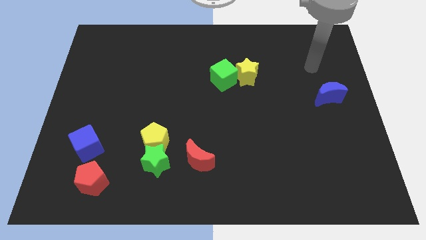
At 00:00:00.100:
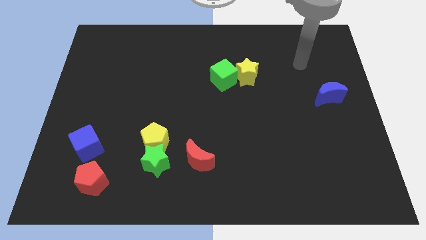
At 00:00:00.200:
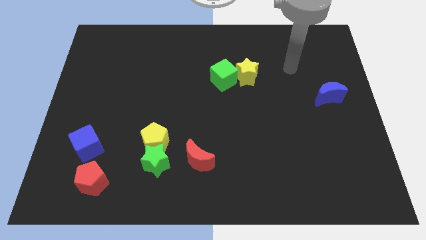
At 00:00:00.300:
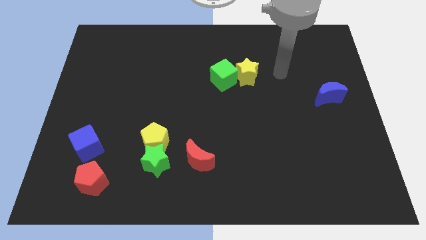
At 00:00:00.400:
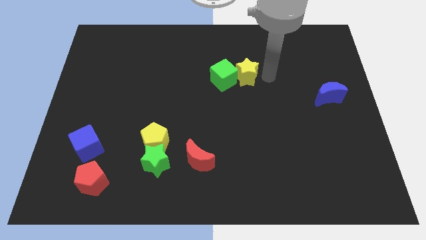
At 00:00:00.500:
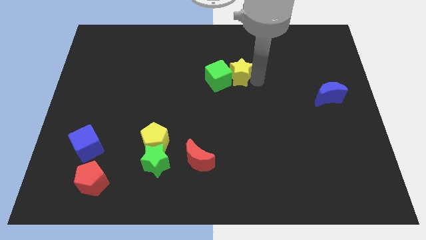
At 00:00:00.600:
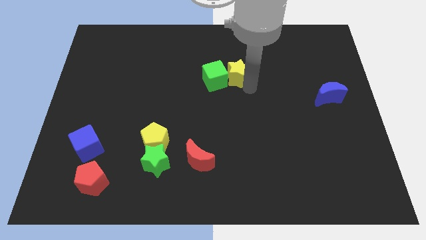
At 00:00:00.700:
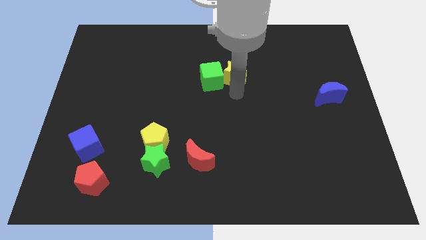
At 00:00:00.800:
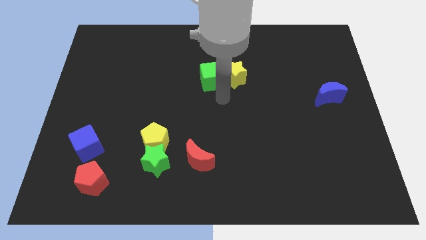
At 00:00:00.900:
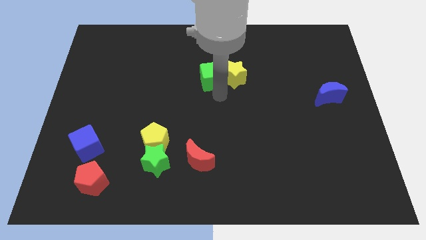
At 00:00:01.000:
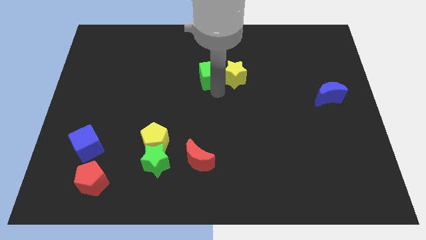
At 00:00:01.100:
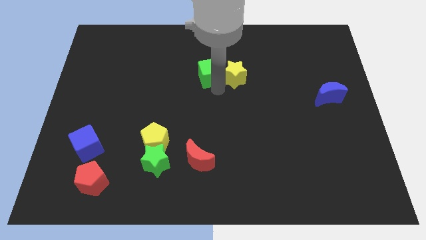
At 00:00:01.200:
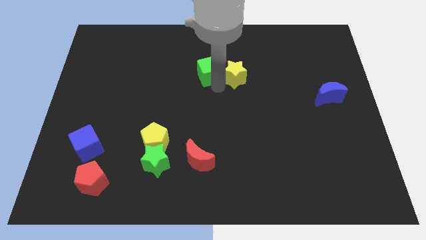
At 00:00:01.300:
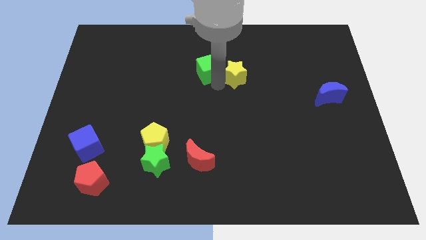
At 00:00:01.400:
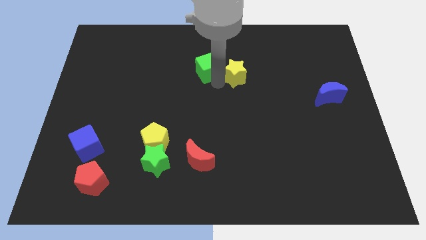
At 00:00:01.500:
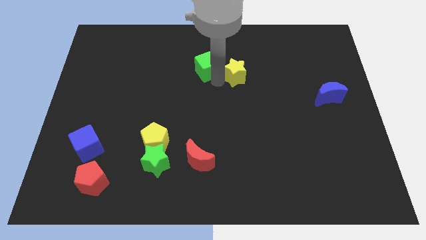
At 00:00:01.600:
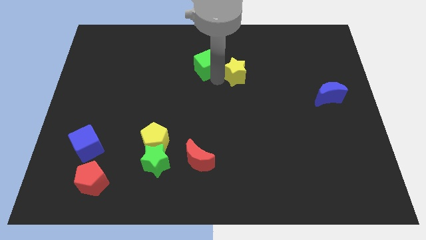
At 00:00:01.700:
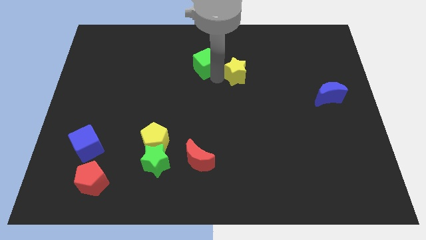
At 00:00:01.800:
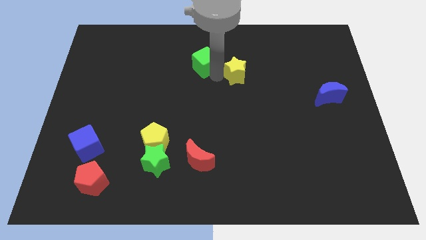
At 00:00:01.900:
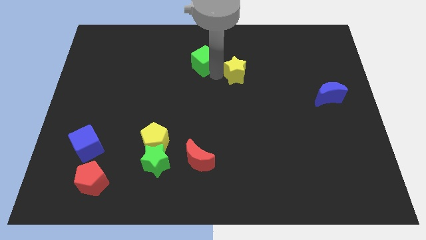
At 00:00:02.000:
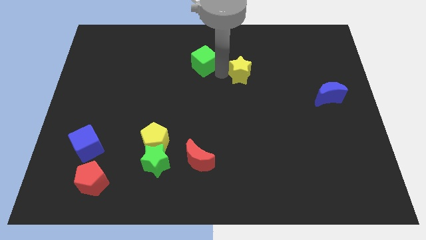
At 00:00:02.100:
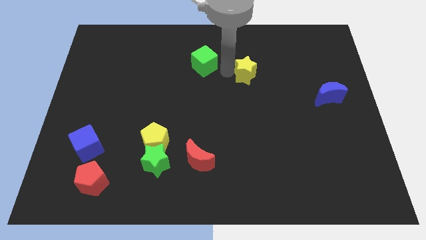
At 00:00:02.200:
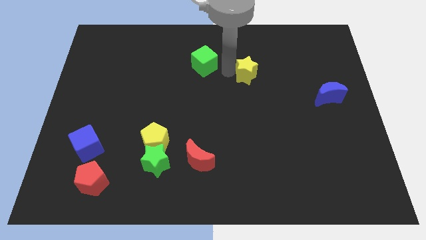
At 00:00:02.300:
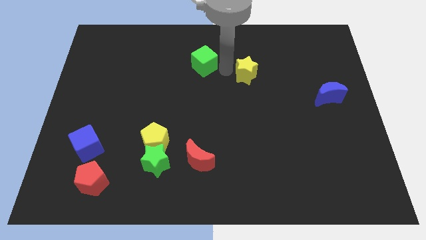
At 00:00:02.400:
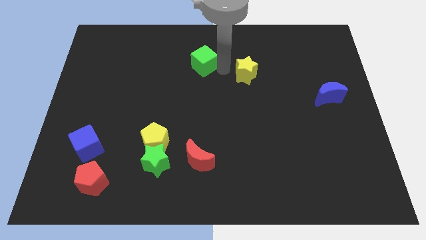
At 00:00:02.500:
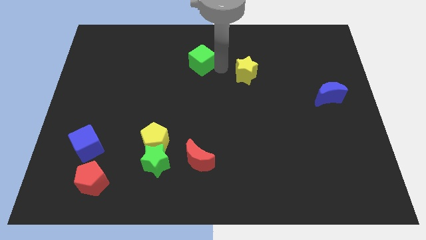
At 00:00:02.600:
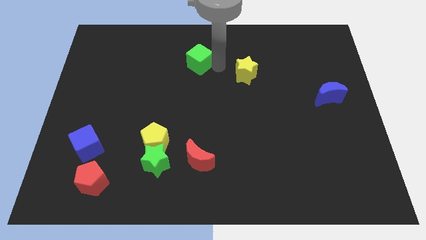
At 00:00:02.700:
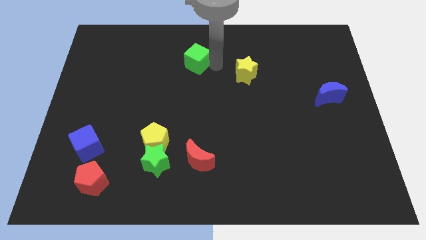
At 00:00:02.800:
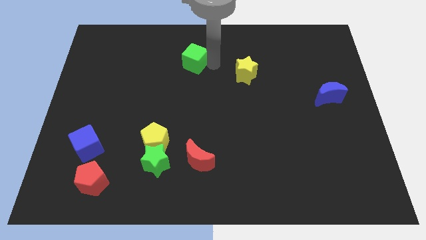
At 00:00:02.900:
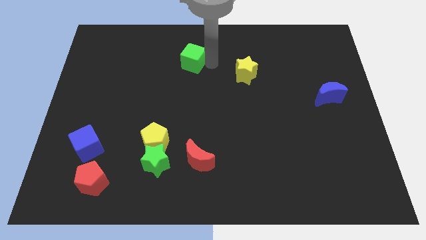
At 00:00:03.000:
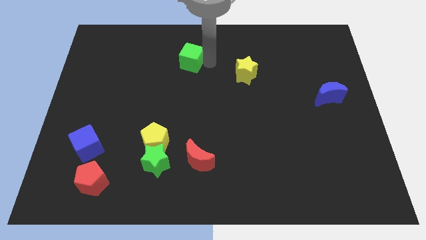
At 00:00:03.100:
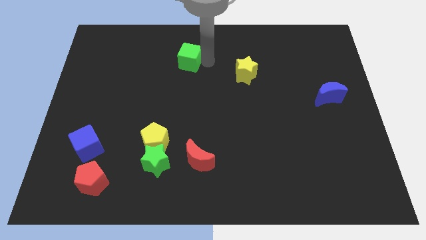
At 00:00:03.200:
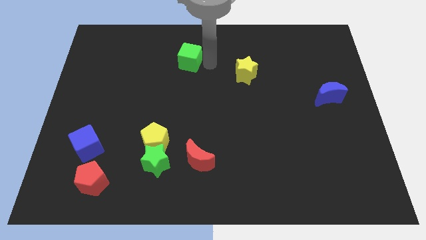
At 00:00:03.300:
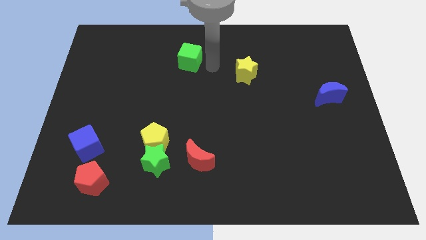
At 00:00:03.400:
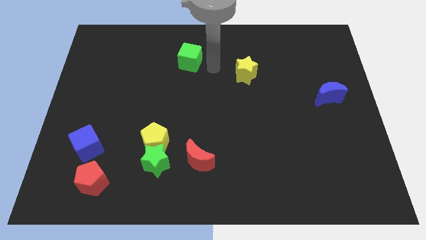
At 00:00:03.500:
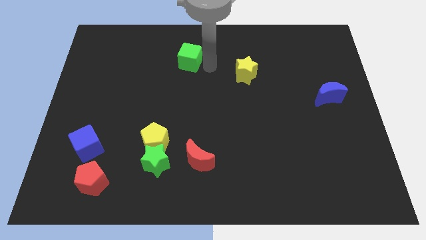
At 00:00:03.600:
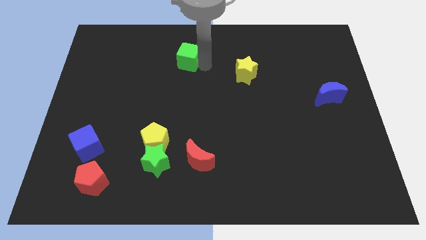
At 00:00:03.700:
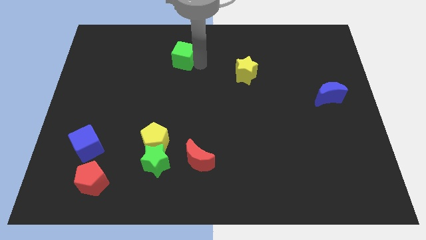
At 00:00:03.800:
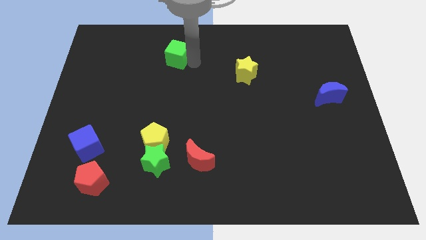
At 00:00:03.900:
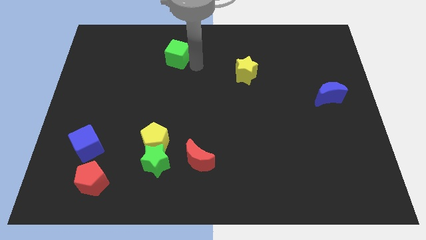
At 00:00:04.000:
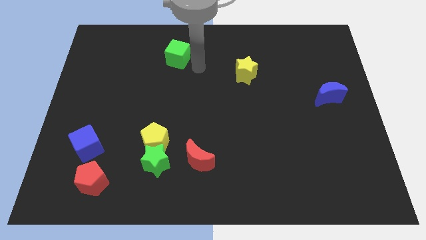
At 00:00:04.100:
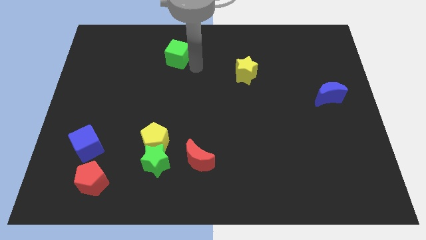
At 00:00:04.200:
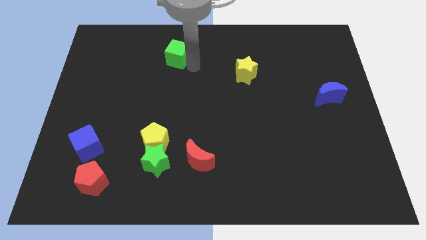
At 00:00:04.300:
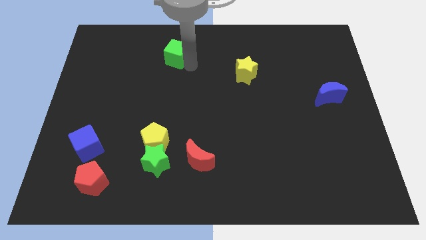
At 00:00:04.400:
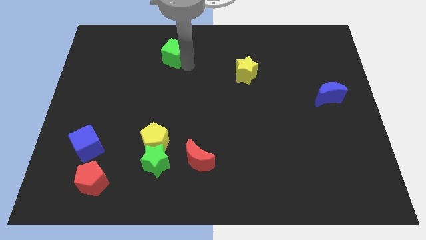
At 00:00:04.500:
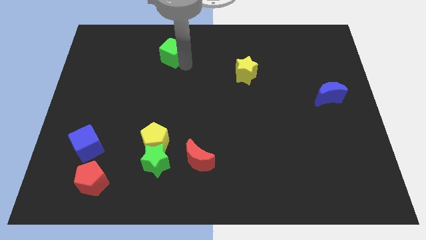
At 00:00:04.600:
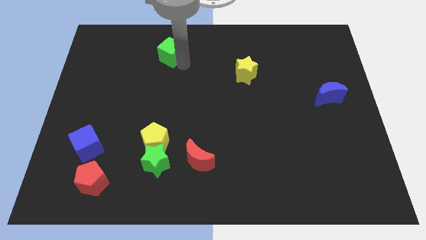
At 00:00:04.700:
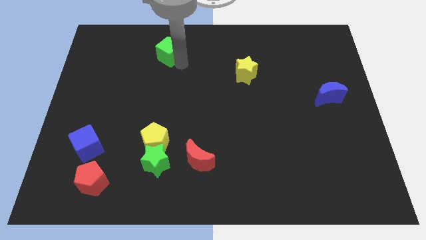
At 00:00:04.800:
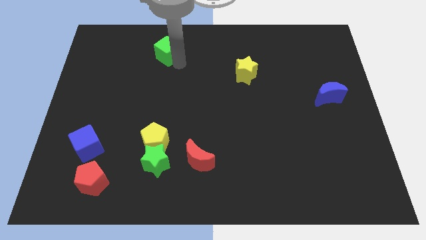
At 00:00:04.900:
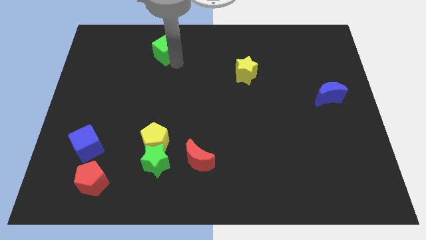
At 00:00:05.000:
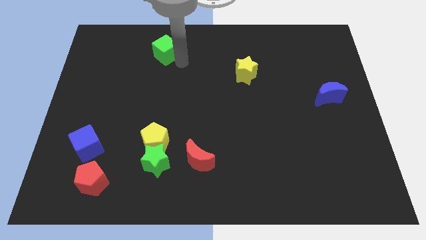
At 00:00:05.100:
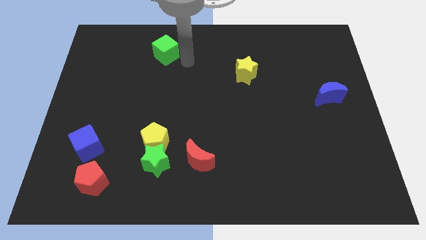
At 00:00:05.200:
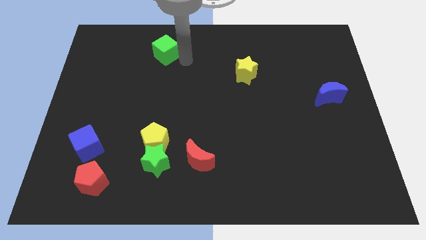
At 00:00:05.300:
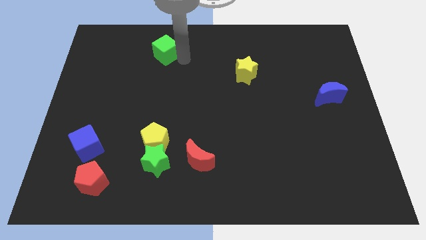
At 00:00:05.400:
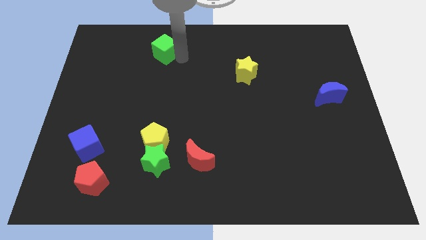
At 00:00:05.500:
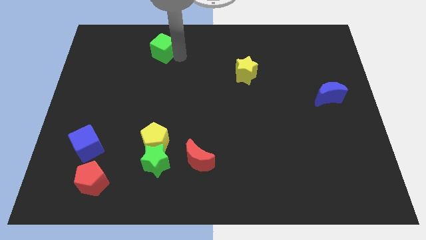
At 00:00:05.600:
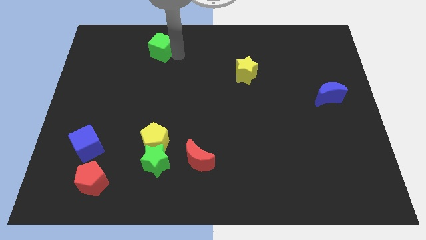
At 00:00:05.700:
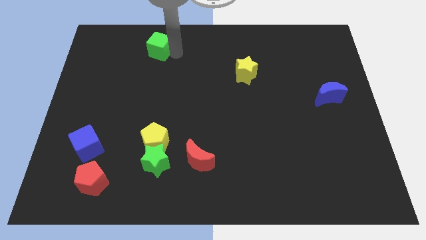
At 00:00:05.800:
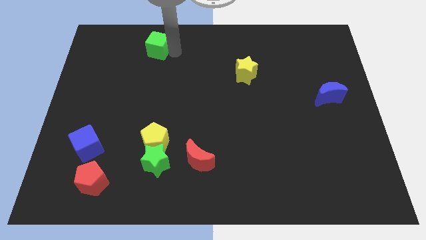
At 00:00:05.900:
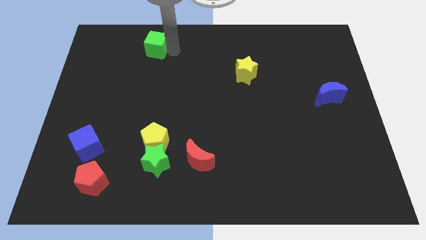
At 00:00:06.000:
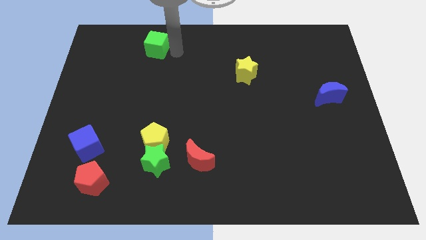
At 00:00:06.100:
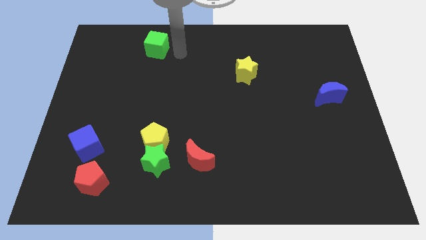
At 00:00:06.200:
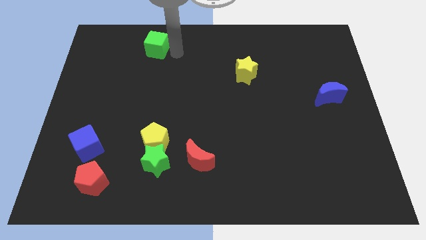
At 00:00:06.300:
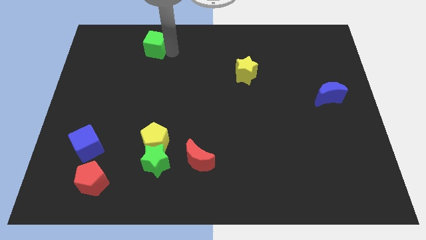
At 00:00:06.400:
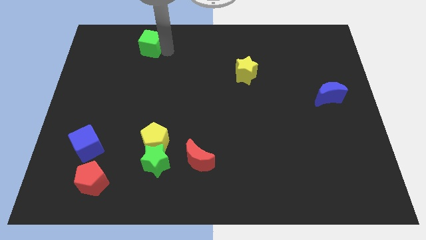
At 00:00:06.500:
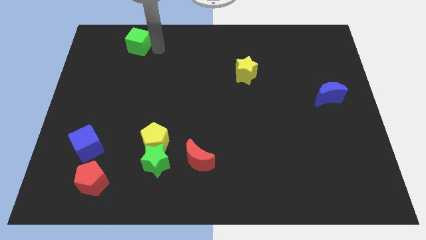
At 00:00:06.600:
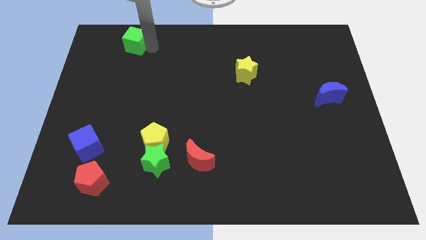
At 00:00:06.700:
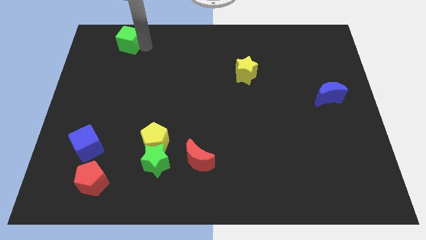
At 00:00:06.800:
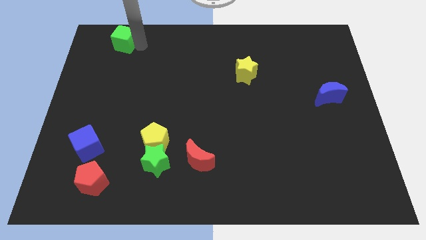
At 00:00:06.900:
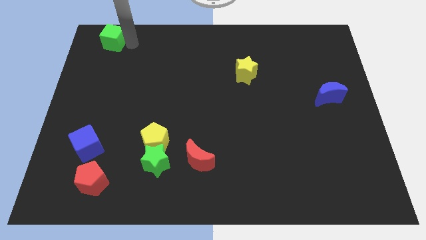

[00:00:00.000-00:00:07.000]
slide the green cube to the top left of the board

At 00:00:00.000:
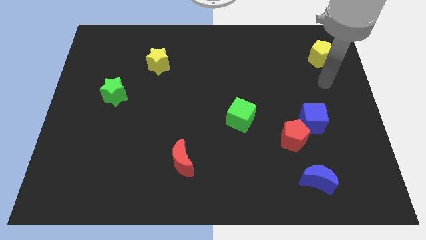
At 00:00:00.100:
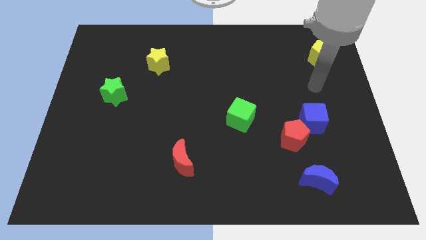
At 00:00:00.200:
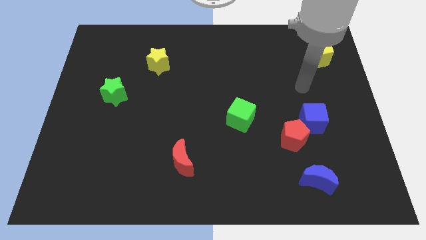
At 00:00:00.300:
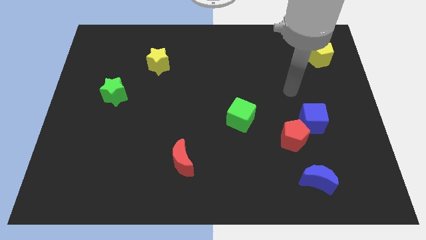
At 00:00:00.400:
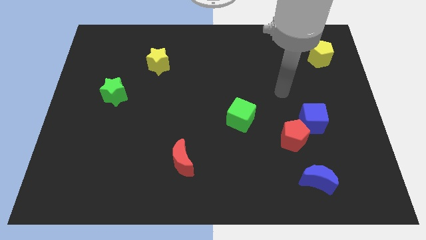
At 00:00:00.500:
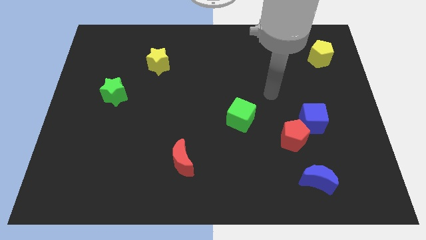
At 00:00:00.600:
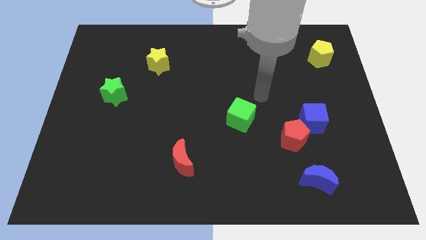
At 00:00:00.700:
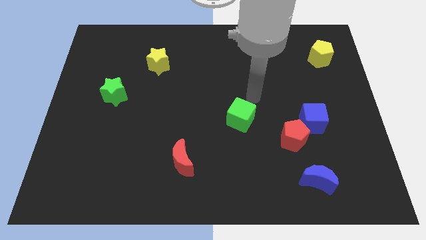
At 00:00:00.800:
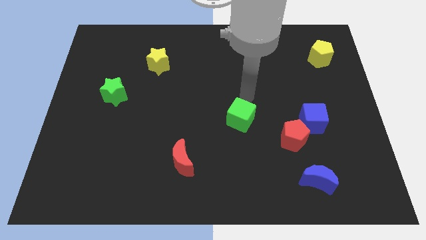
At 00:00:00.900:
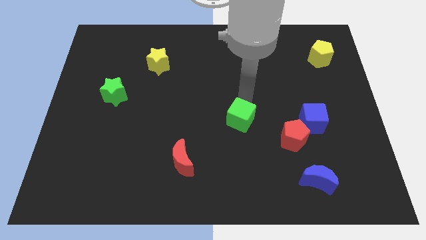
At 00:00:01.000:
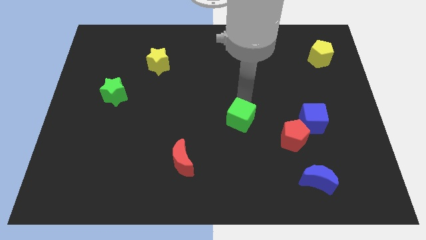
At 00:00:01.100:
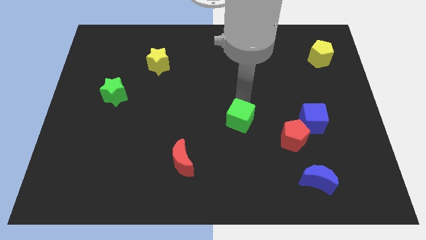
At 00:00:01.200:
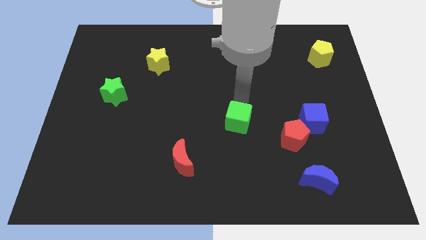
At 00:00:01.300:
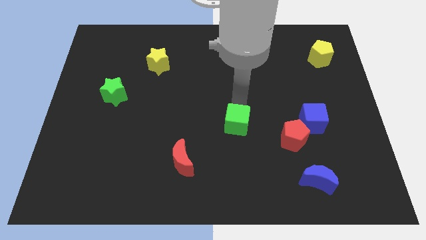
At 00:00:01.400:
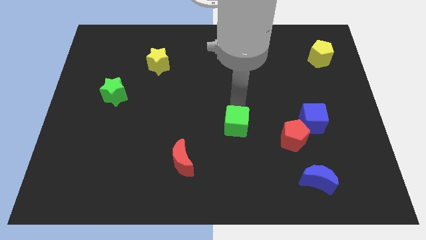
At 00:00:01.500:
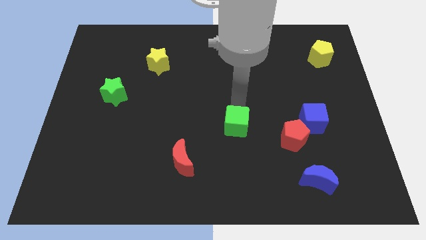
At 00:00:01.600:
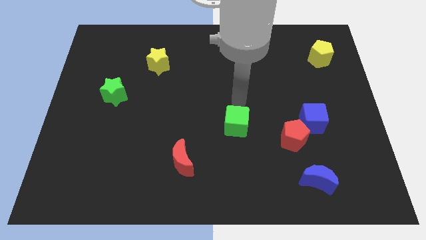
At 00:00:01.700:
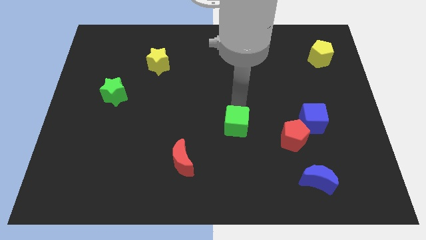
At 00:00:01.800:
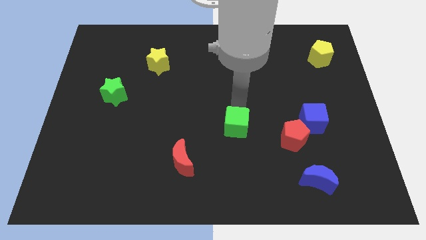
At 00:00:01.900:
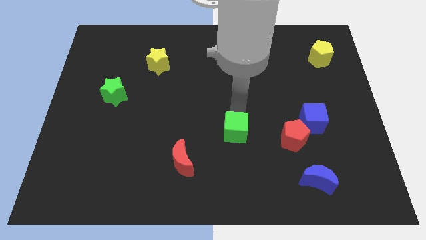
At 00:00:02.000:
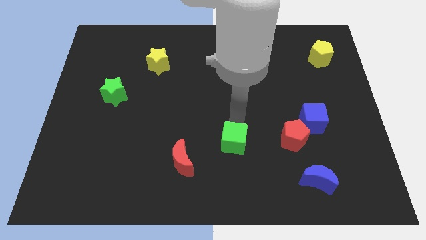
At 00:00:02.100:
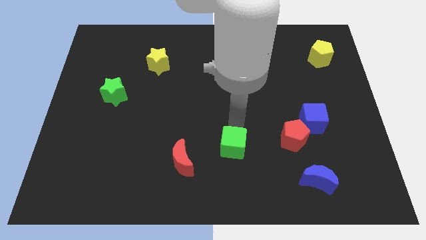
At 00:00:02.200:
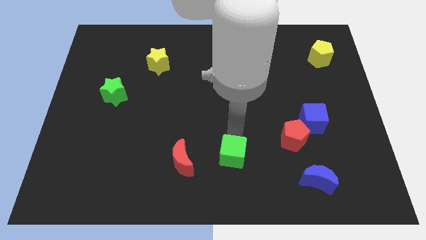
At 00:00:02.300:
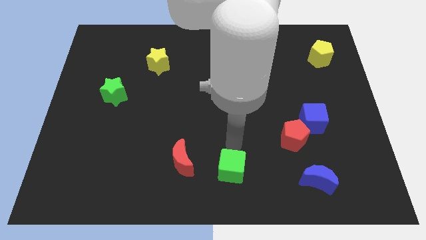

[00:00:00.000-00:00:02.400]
push the green cube to the bottom side
